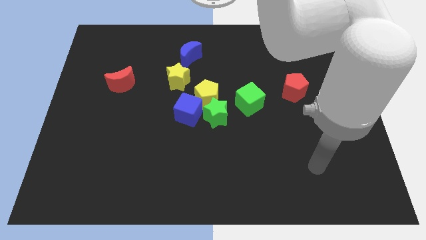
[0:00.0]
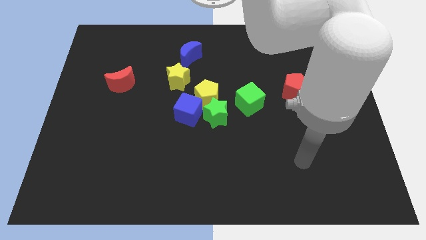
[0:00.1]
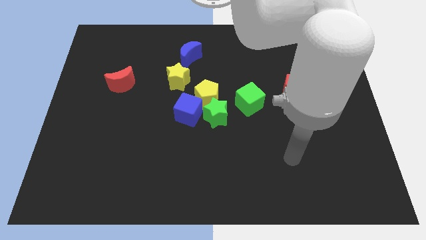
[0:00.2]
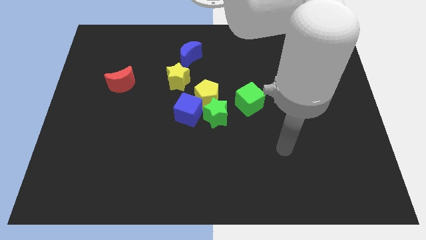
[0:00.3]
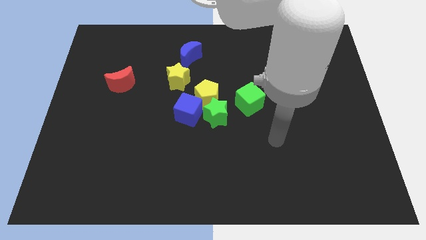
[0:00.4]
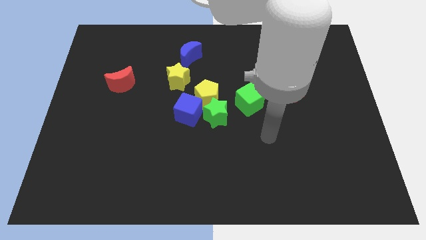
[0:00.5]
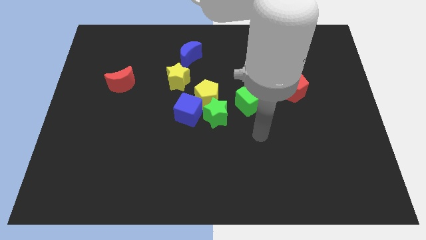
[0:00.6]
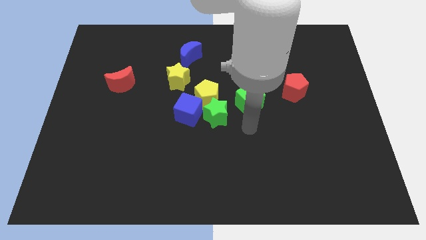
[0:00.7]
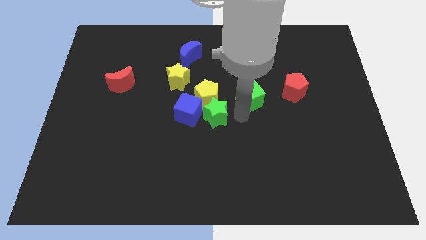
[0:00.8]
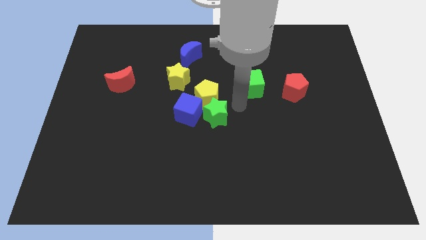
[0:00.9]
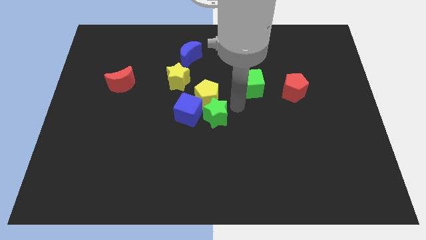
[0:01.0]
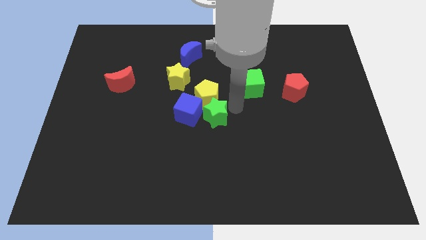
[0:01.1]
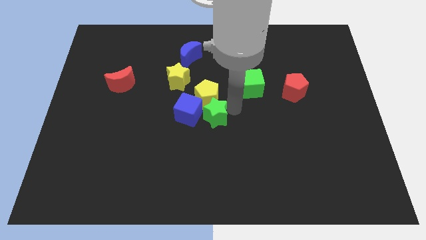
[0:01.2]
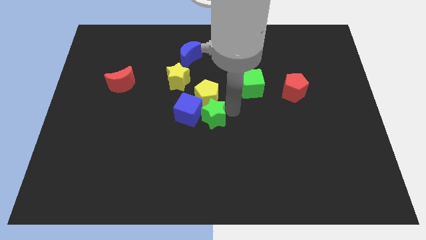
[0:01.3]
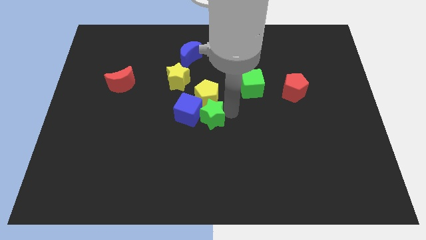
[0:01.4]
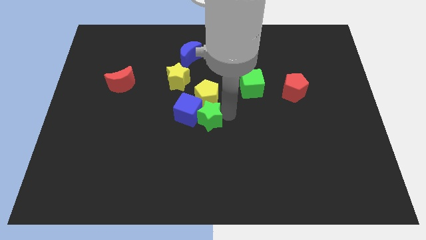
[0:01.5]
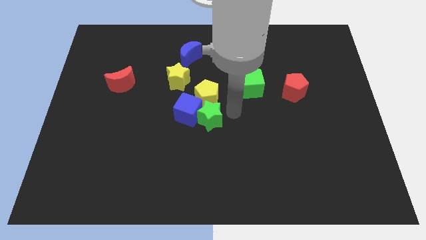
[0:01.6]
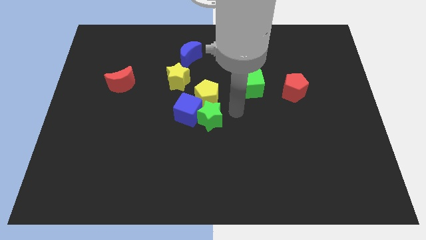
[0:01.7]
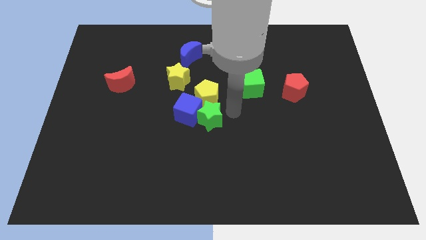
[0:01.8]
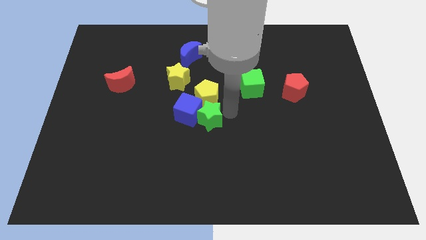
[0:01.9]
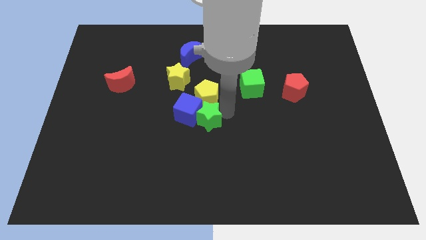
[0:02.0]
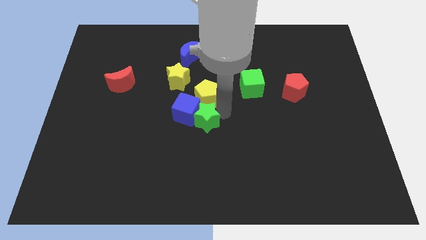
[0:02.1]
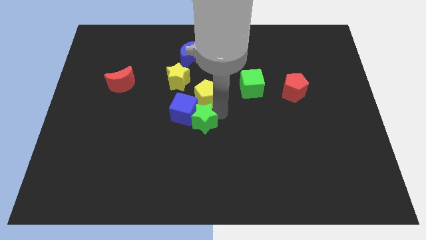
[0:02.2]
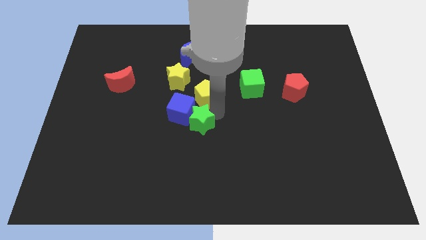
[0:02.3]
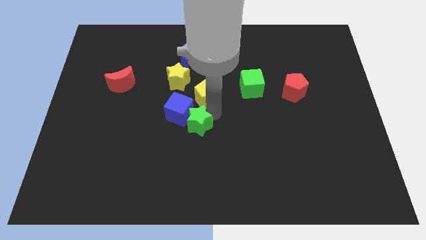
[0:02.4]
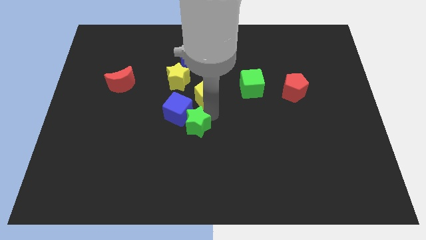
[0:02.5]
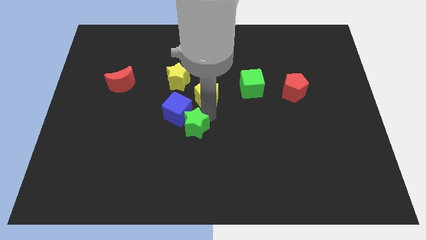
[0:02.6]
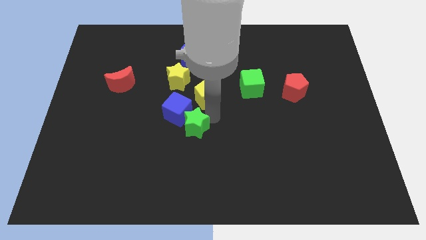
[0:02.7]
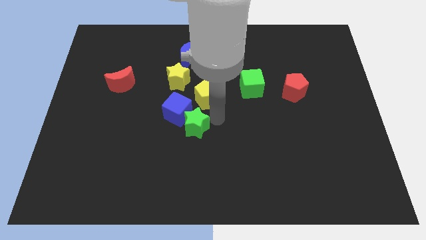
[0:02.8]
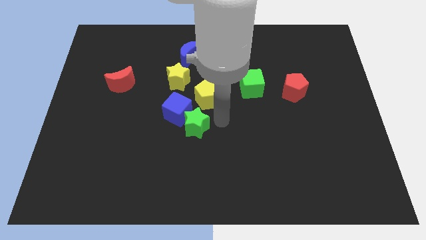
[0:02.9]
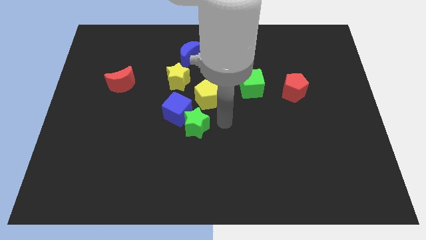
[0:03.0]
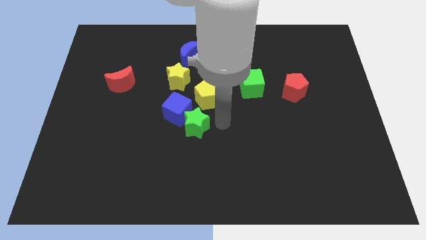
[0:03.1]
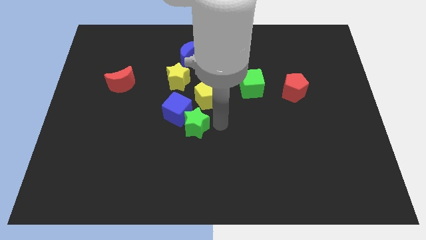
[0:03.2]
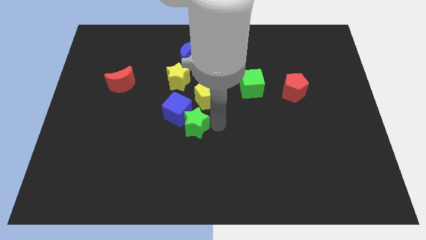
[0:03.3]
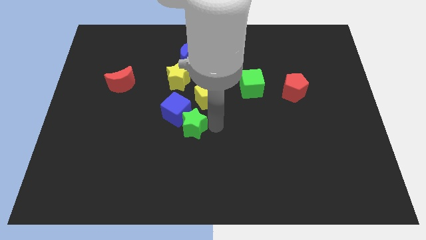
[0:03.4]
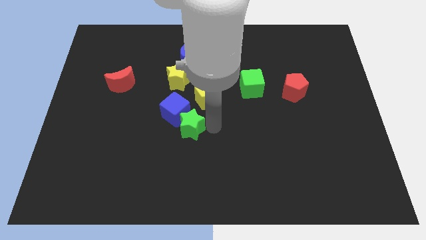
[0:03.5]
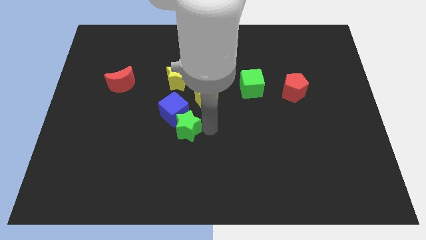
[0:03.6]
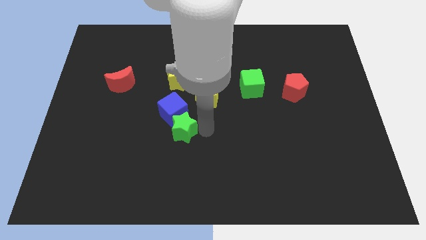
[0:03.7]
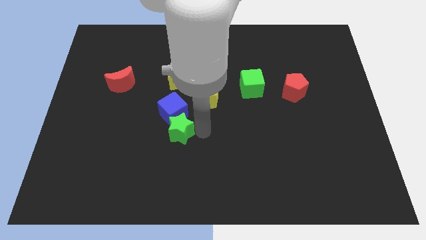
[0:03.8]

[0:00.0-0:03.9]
push the green star left a little bit

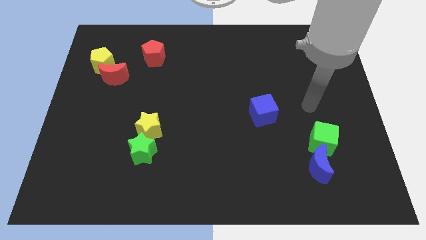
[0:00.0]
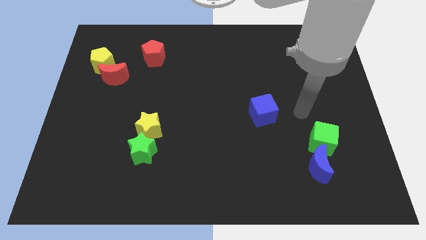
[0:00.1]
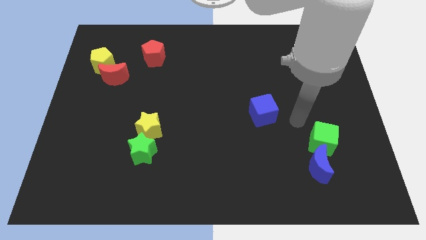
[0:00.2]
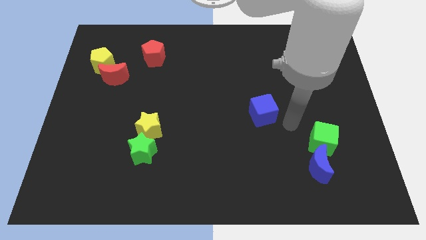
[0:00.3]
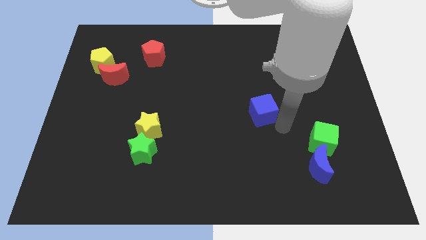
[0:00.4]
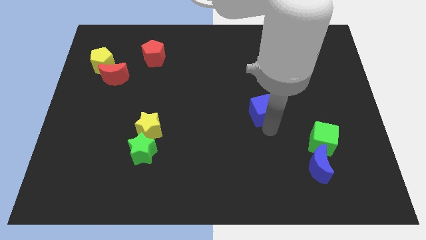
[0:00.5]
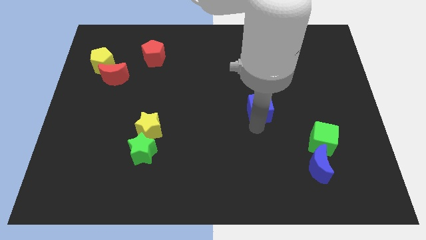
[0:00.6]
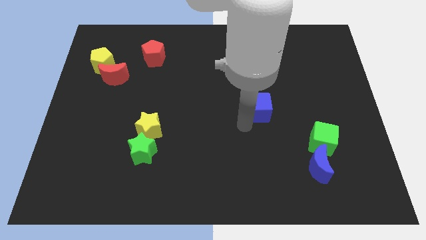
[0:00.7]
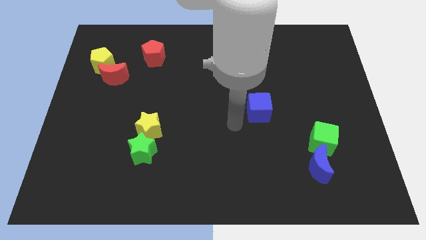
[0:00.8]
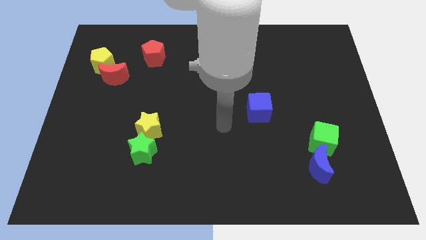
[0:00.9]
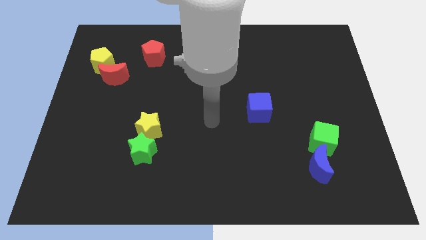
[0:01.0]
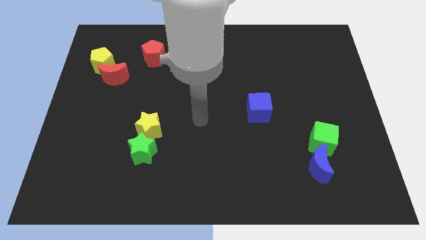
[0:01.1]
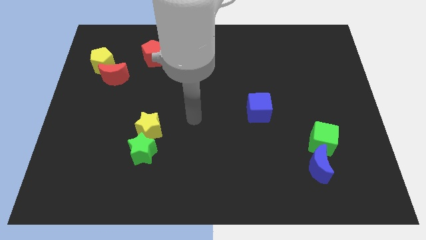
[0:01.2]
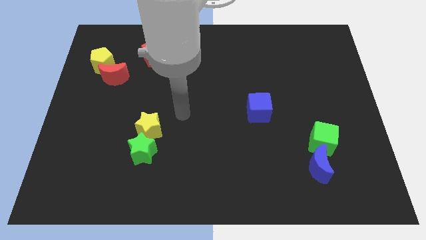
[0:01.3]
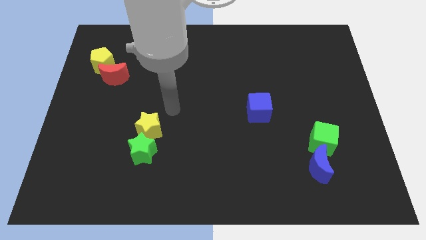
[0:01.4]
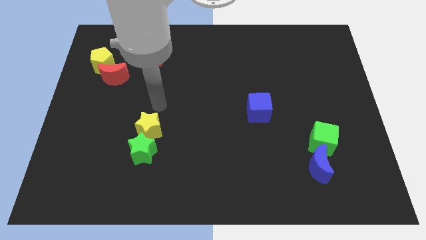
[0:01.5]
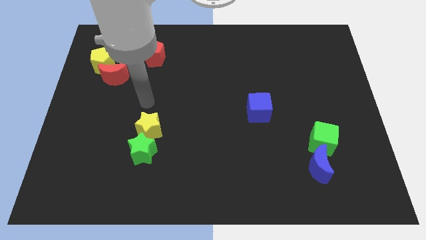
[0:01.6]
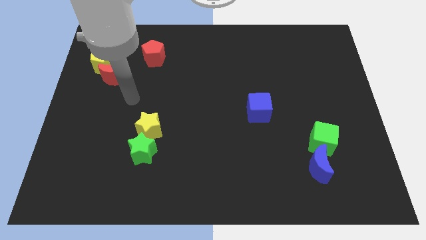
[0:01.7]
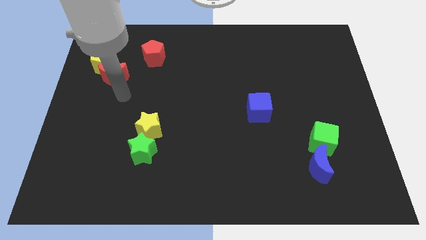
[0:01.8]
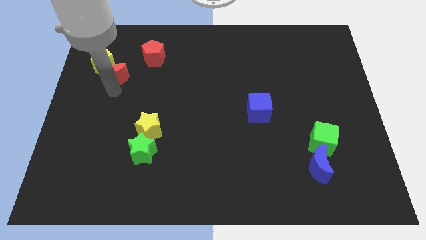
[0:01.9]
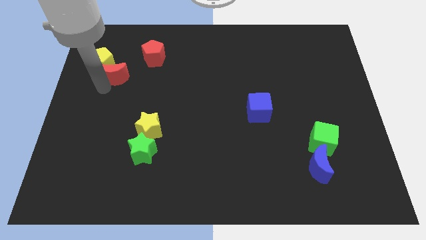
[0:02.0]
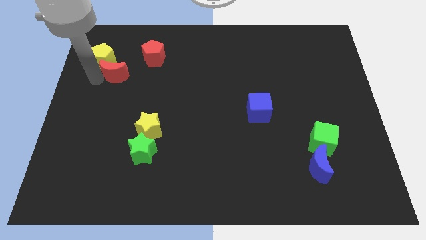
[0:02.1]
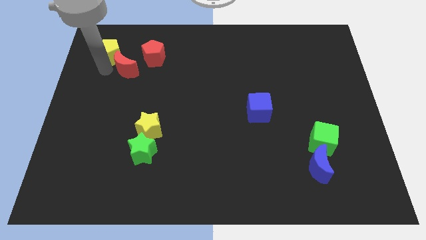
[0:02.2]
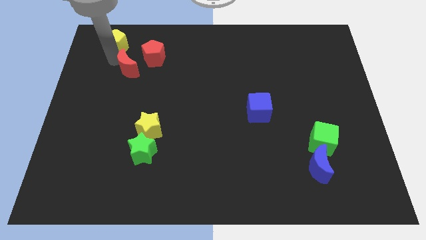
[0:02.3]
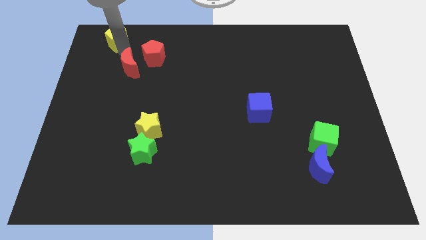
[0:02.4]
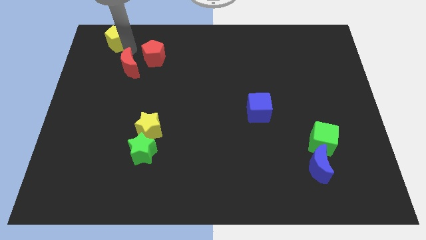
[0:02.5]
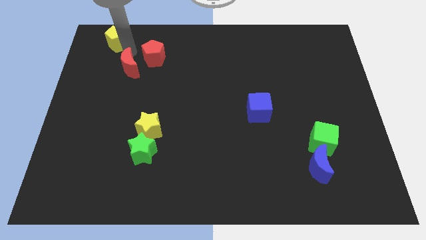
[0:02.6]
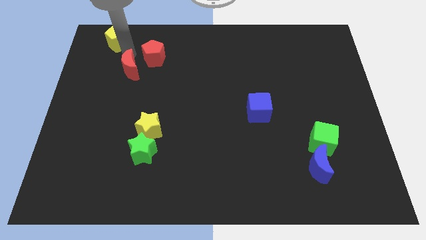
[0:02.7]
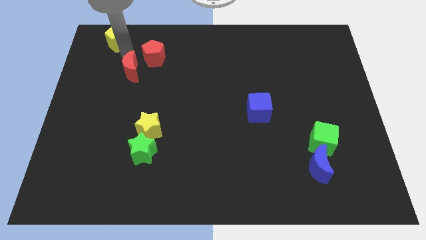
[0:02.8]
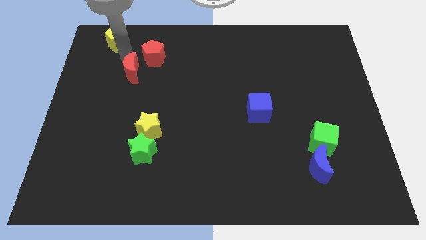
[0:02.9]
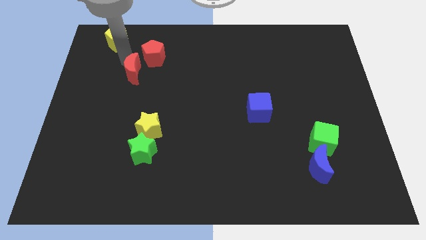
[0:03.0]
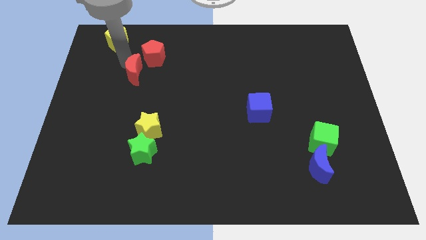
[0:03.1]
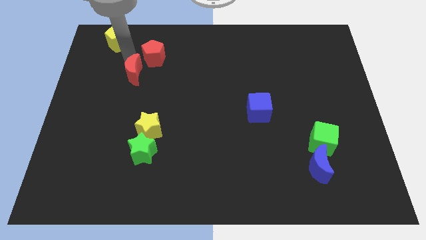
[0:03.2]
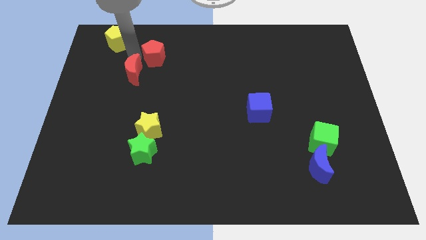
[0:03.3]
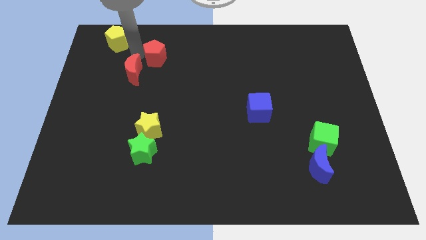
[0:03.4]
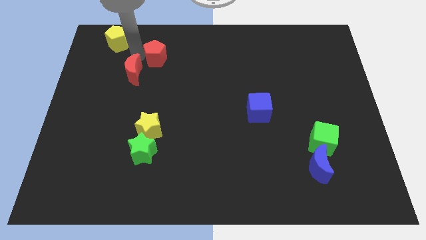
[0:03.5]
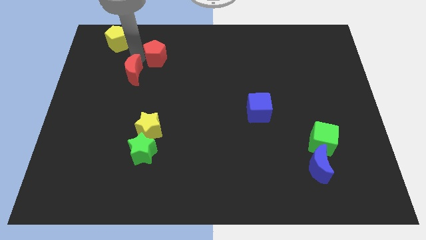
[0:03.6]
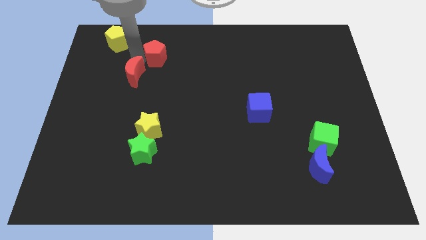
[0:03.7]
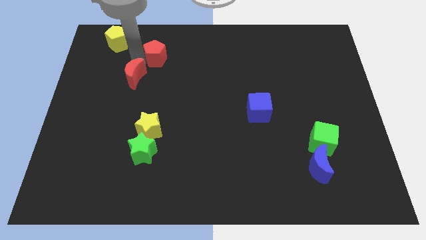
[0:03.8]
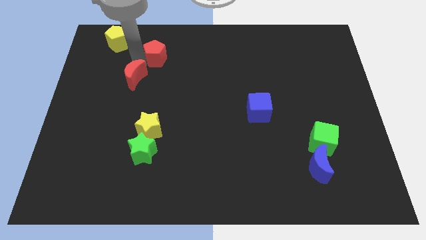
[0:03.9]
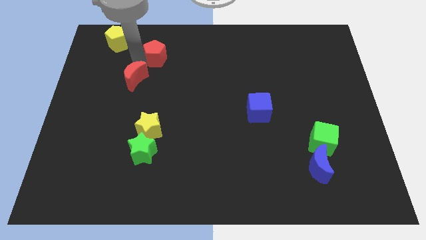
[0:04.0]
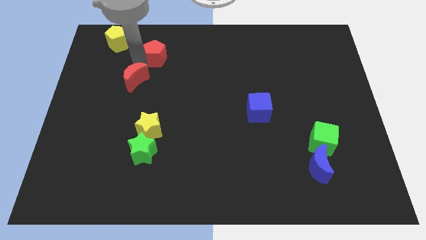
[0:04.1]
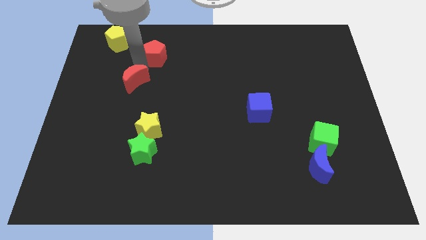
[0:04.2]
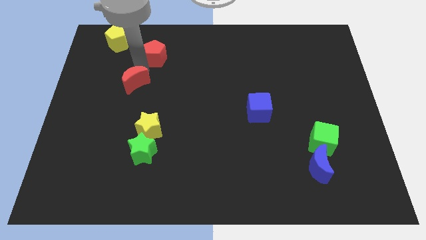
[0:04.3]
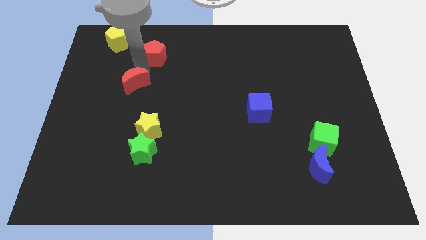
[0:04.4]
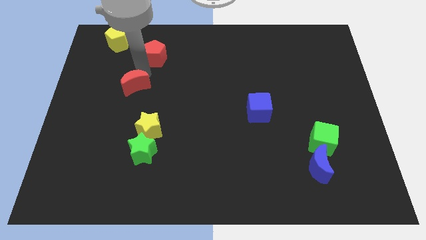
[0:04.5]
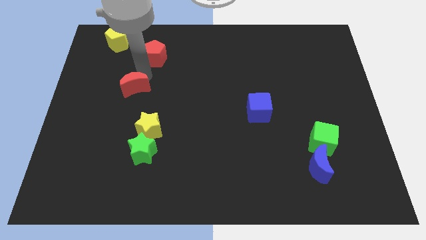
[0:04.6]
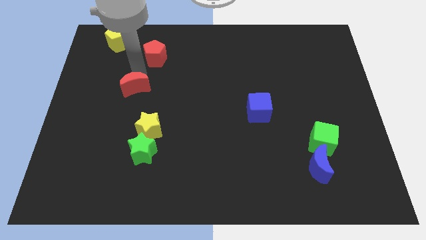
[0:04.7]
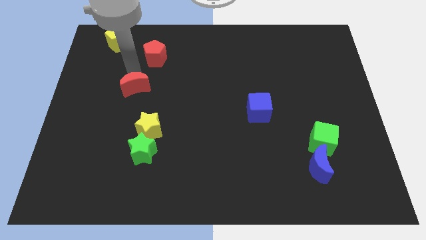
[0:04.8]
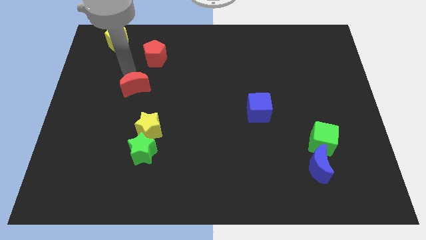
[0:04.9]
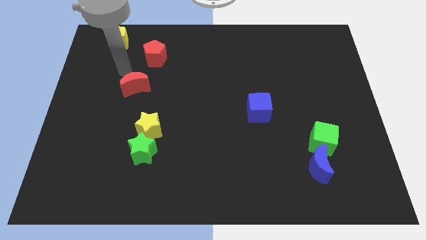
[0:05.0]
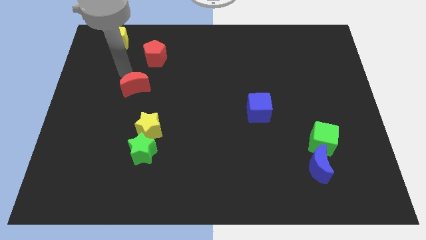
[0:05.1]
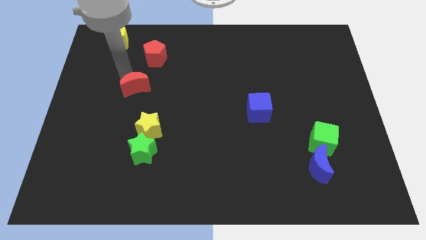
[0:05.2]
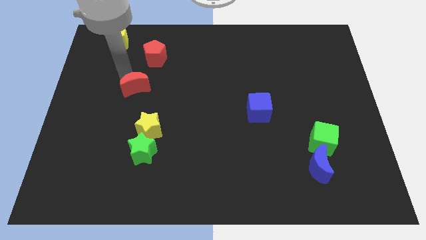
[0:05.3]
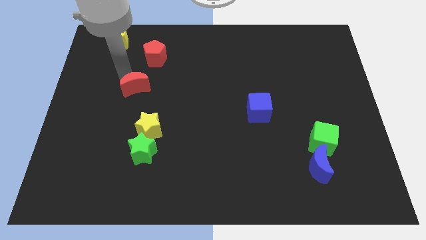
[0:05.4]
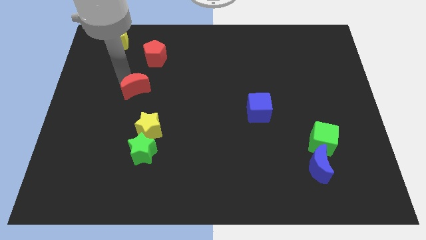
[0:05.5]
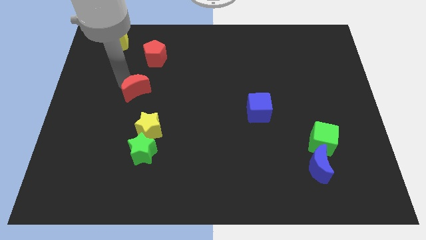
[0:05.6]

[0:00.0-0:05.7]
slightly move the red moon diagonally downwards and to the right
